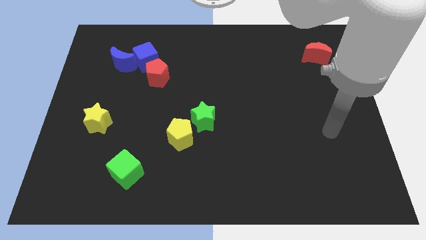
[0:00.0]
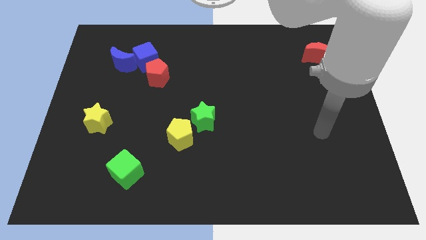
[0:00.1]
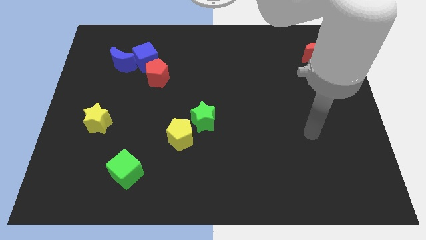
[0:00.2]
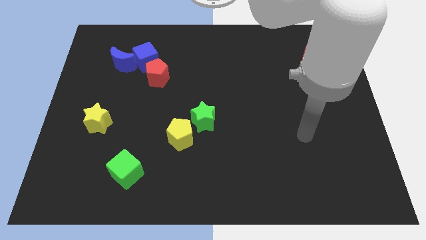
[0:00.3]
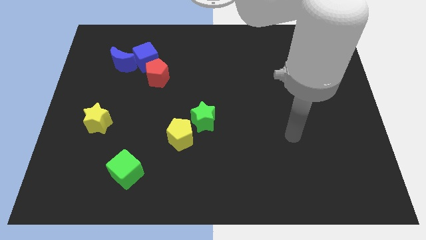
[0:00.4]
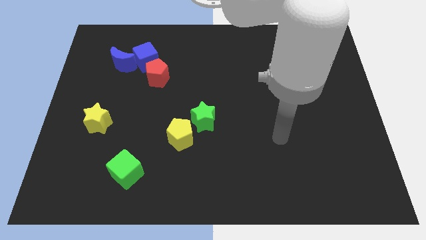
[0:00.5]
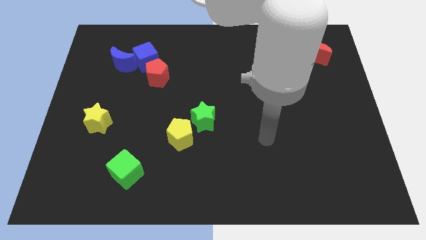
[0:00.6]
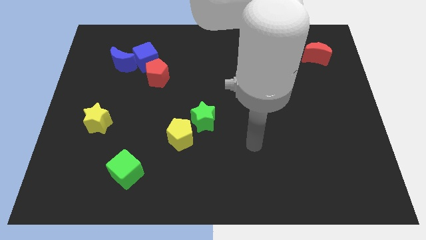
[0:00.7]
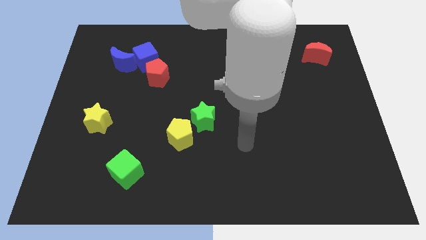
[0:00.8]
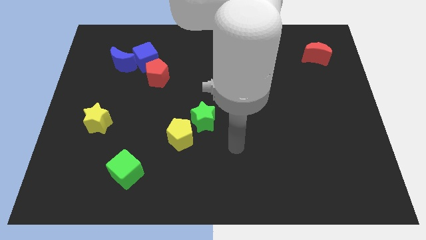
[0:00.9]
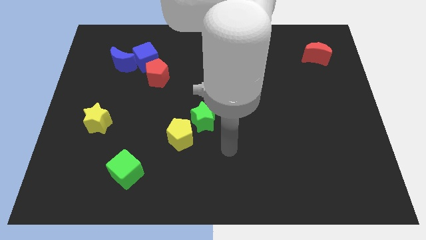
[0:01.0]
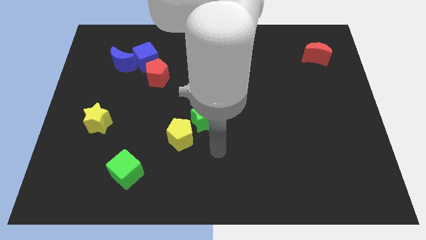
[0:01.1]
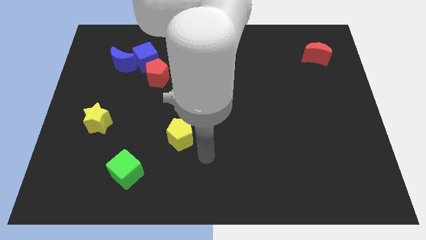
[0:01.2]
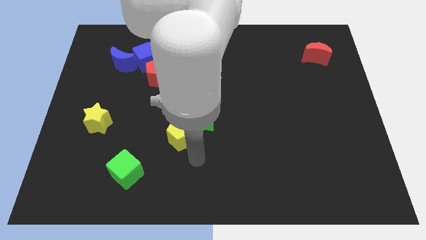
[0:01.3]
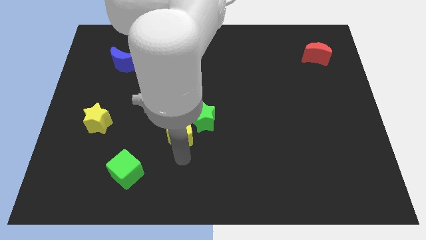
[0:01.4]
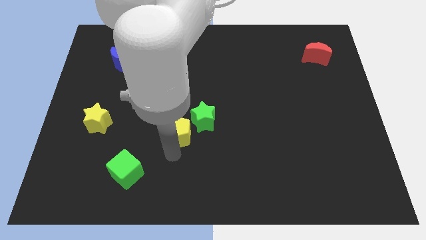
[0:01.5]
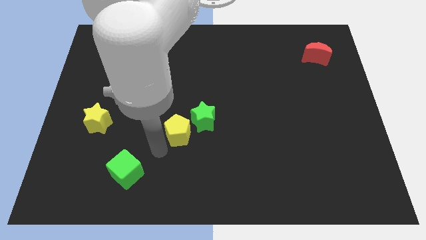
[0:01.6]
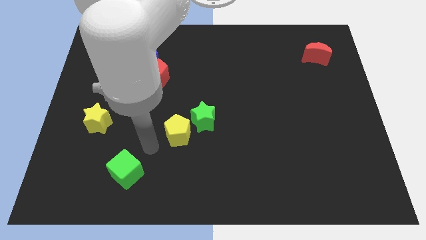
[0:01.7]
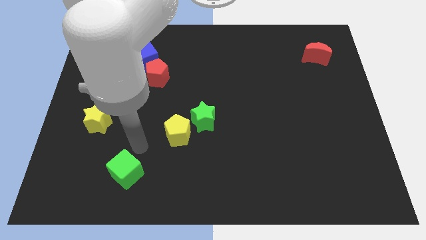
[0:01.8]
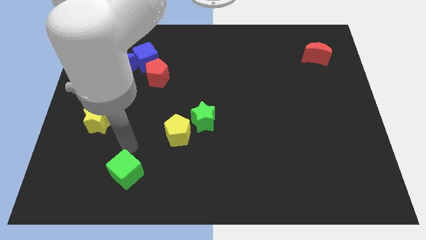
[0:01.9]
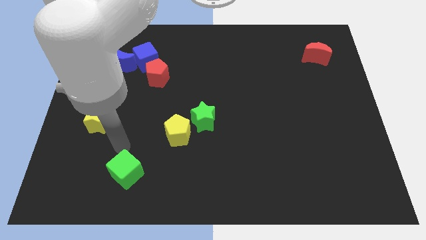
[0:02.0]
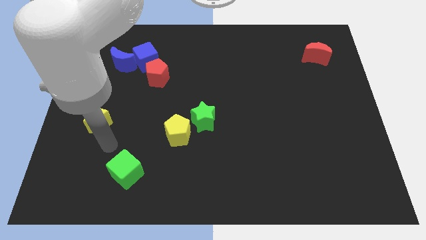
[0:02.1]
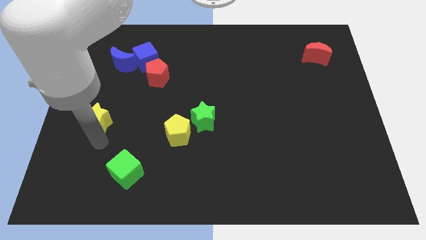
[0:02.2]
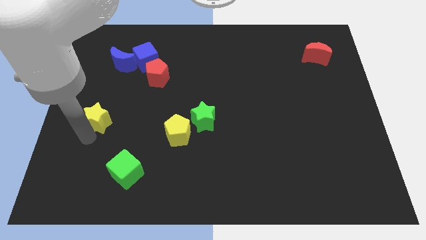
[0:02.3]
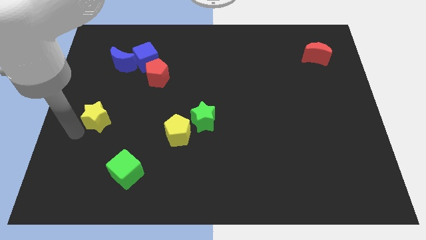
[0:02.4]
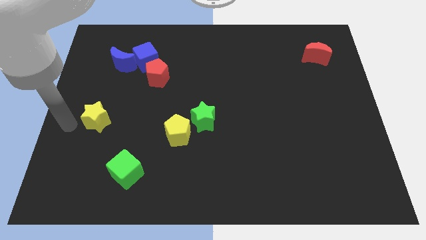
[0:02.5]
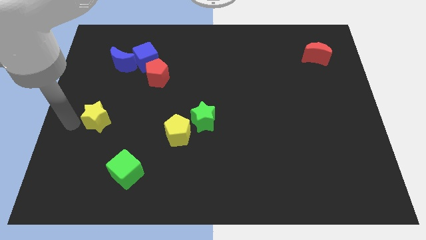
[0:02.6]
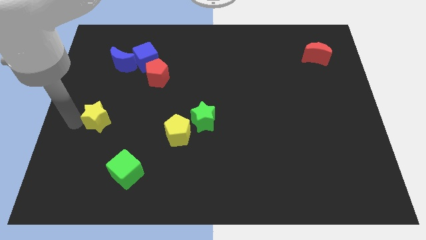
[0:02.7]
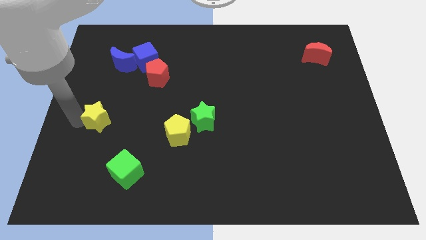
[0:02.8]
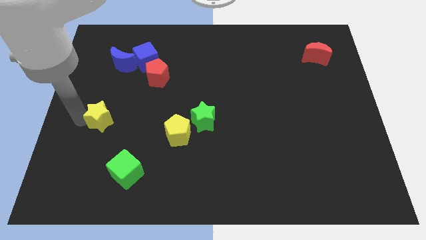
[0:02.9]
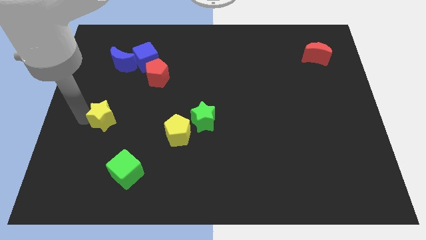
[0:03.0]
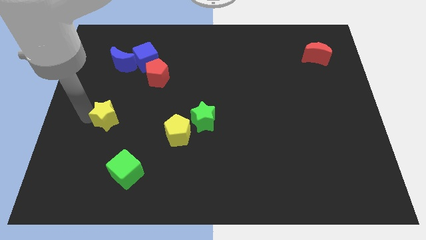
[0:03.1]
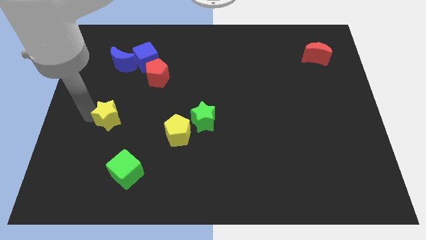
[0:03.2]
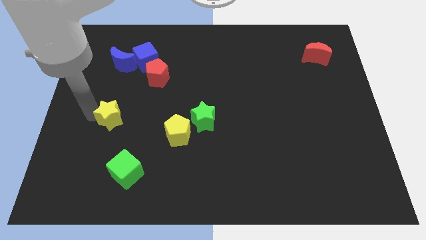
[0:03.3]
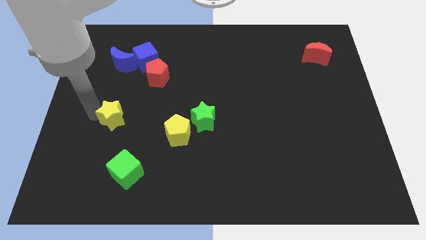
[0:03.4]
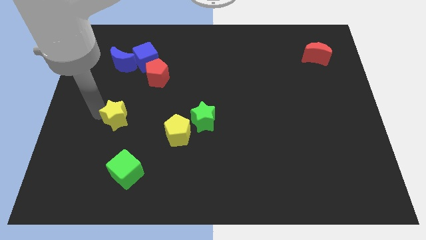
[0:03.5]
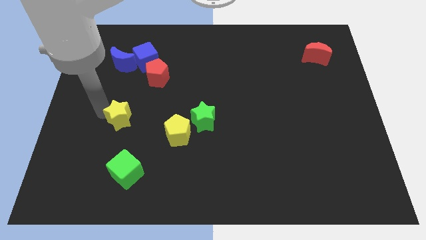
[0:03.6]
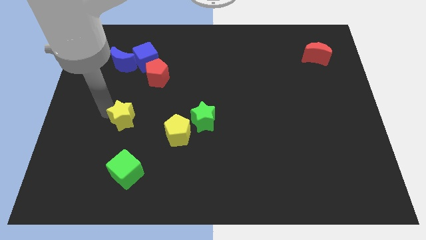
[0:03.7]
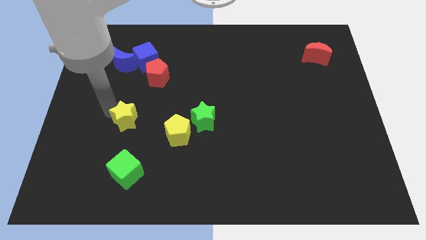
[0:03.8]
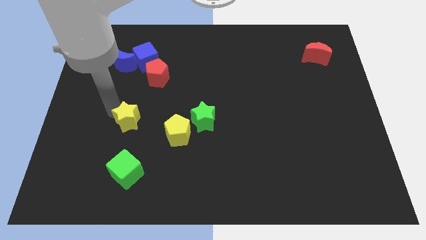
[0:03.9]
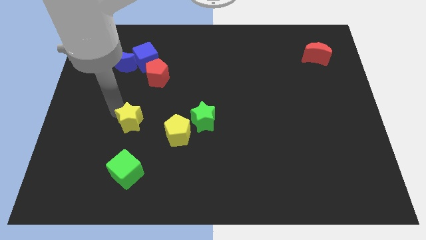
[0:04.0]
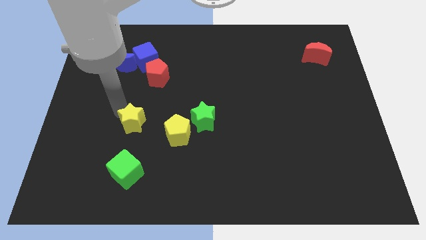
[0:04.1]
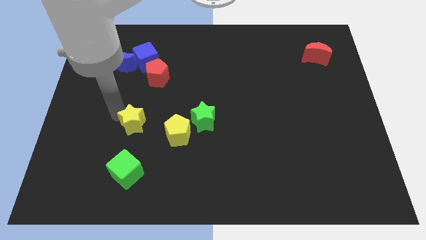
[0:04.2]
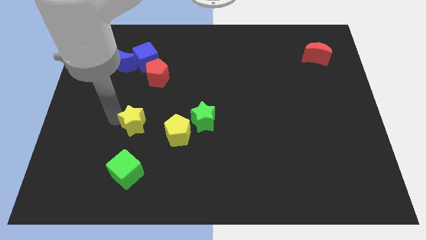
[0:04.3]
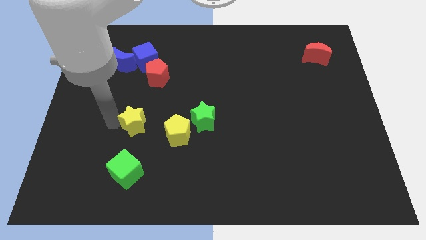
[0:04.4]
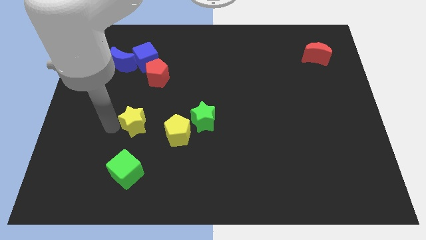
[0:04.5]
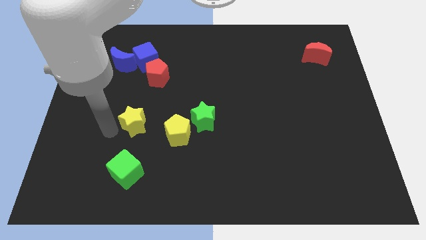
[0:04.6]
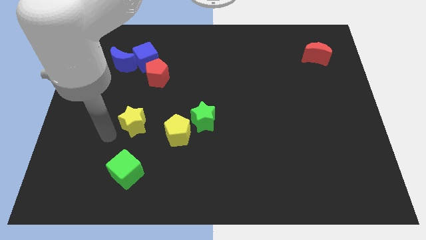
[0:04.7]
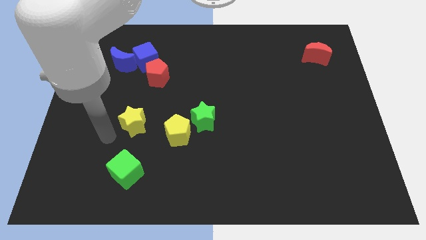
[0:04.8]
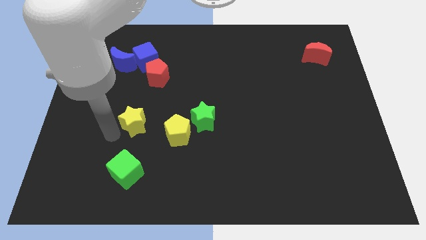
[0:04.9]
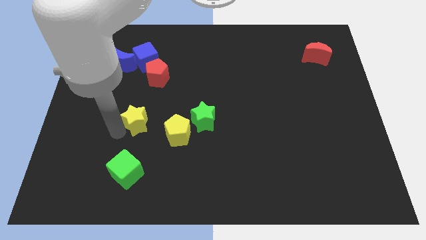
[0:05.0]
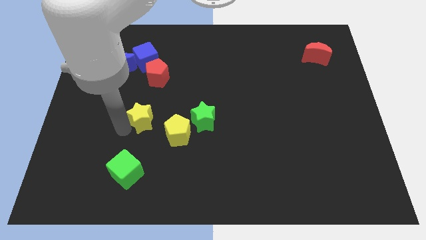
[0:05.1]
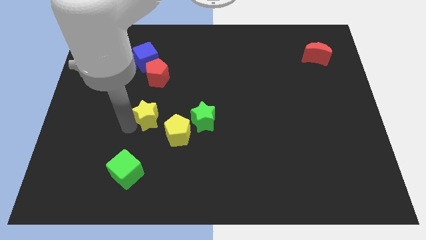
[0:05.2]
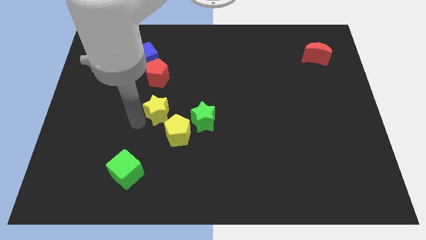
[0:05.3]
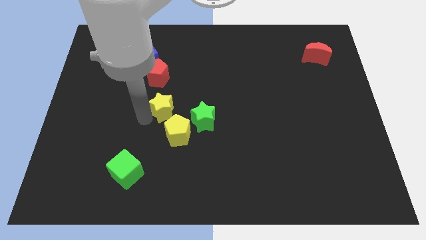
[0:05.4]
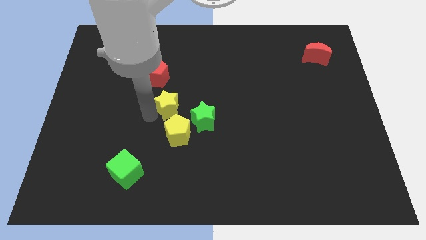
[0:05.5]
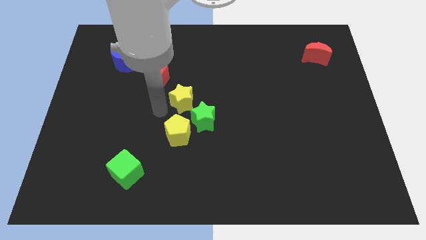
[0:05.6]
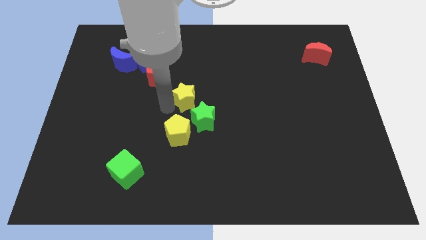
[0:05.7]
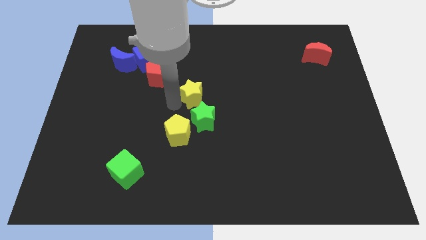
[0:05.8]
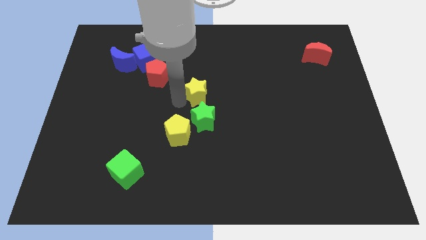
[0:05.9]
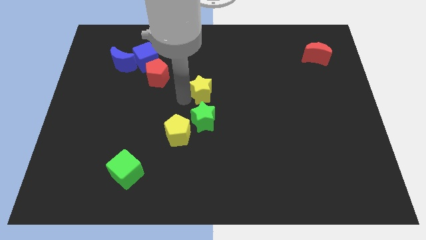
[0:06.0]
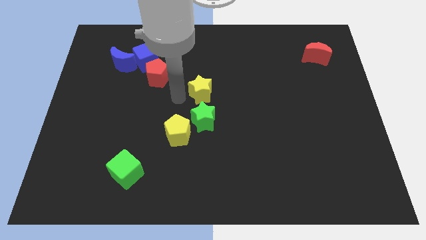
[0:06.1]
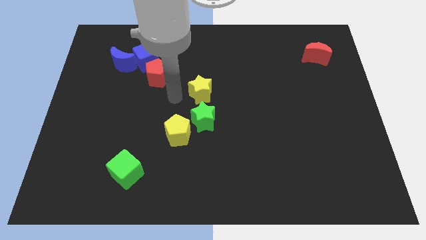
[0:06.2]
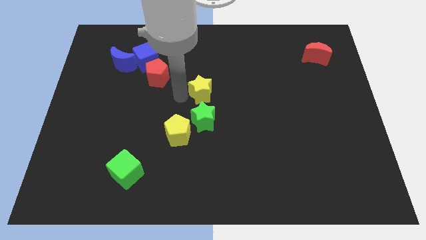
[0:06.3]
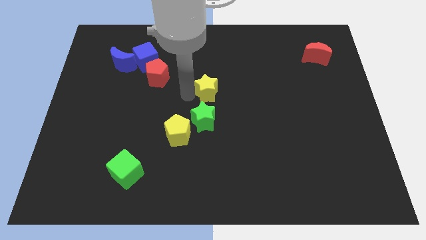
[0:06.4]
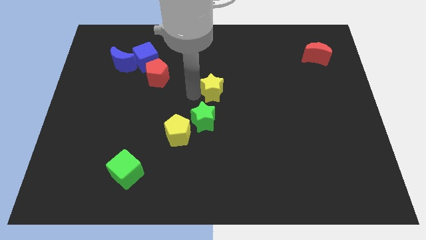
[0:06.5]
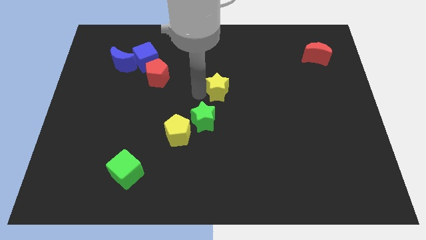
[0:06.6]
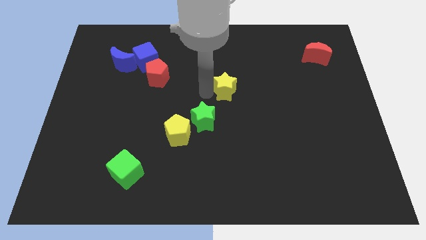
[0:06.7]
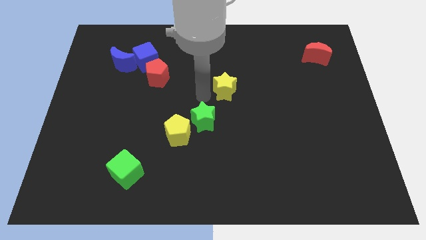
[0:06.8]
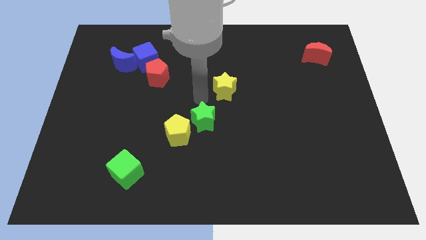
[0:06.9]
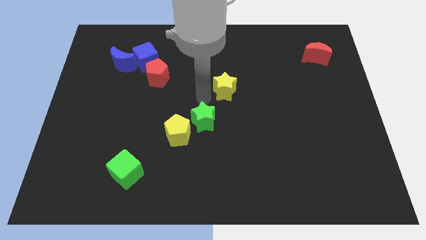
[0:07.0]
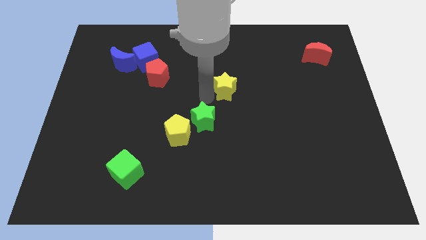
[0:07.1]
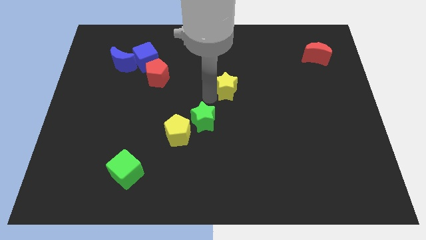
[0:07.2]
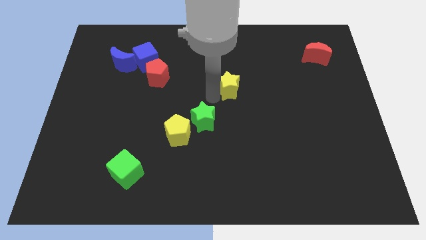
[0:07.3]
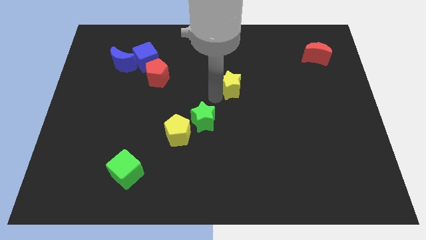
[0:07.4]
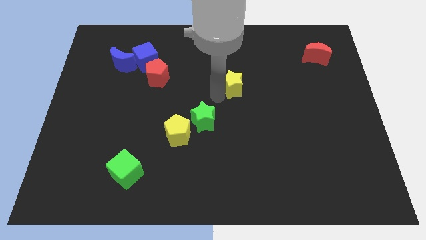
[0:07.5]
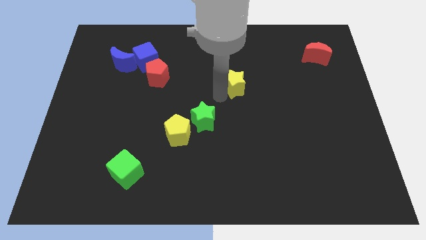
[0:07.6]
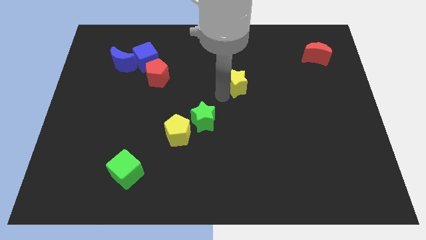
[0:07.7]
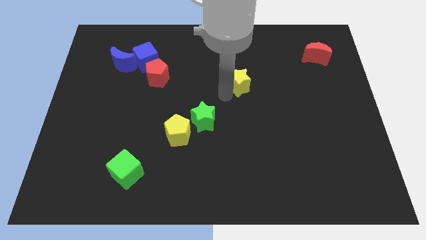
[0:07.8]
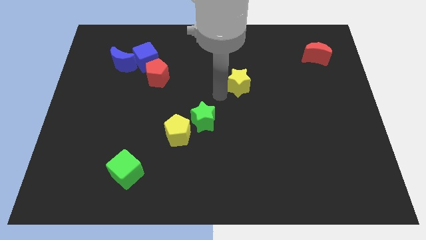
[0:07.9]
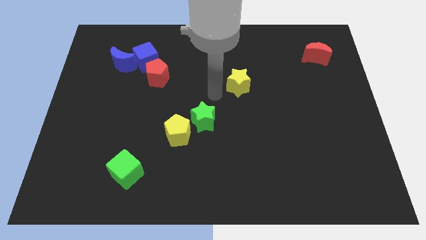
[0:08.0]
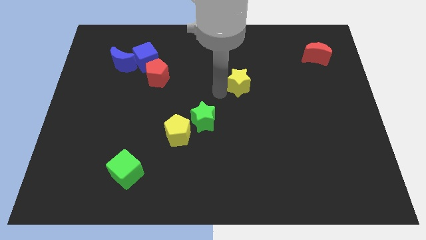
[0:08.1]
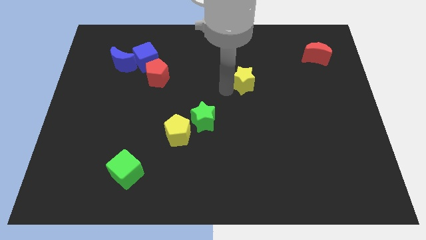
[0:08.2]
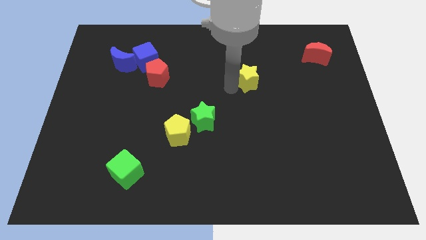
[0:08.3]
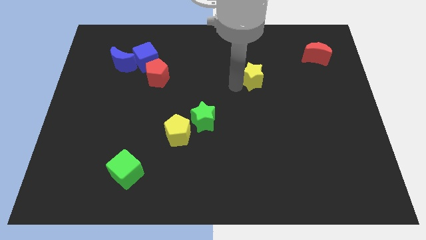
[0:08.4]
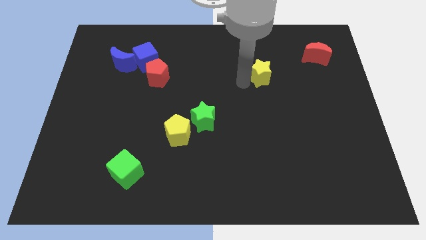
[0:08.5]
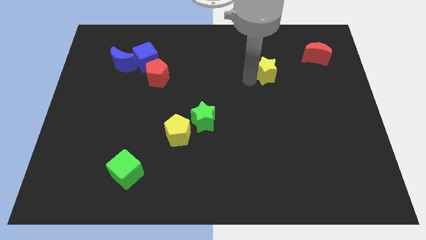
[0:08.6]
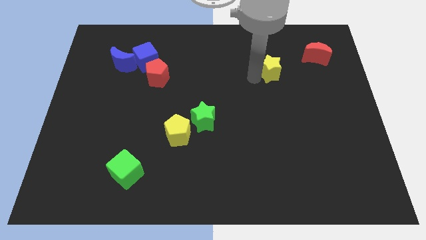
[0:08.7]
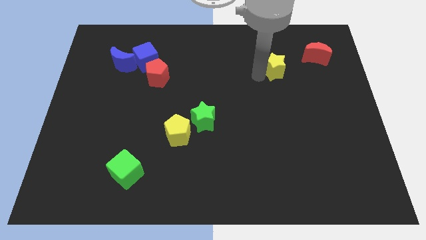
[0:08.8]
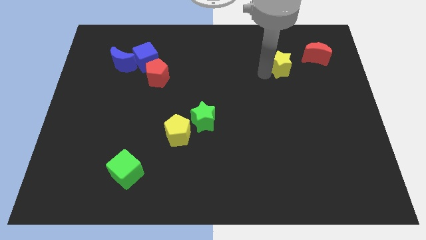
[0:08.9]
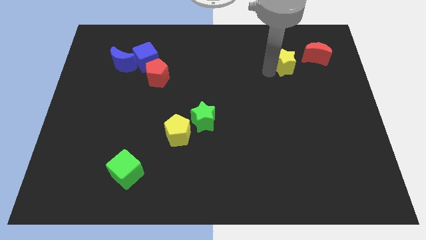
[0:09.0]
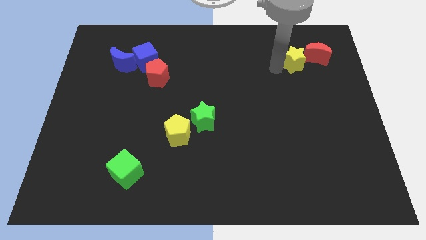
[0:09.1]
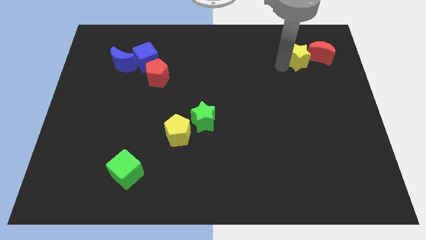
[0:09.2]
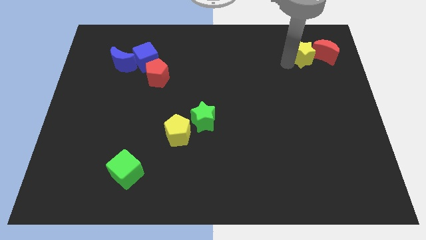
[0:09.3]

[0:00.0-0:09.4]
put the yellow star close to the red moon
